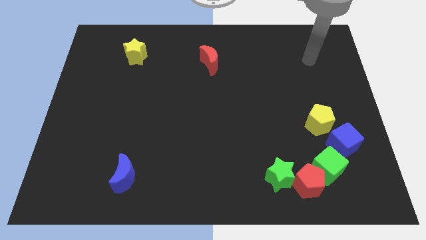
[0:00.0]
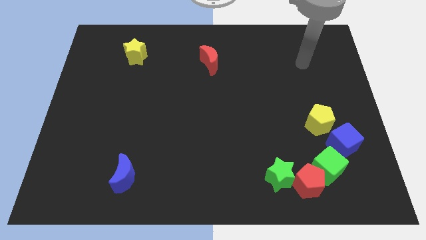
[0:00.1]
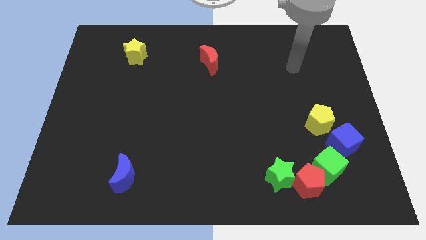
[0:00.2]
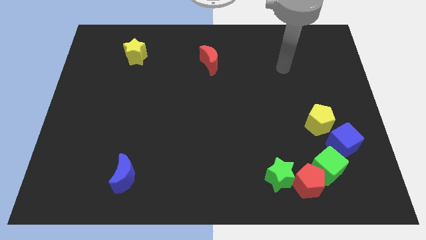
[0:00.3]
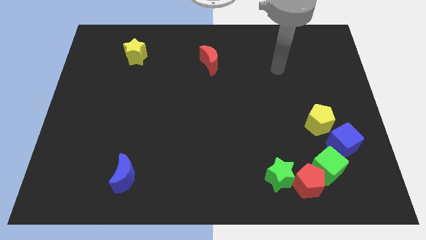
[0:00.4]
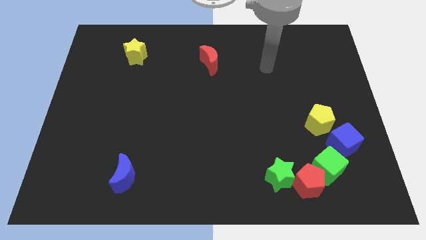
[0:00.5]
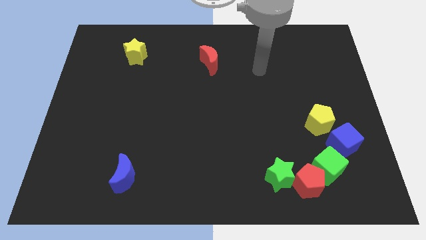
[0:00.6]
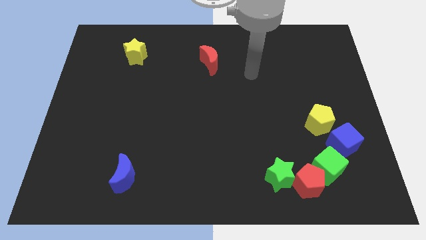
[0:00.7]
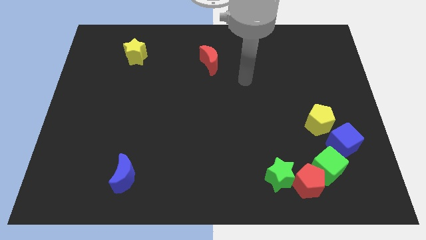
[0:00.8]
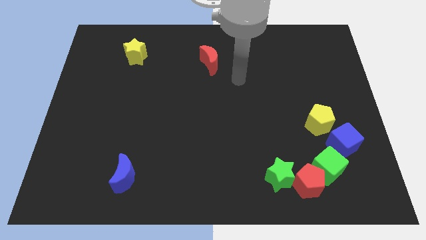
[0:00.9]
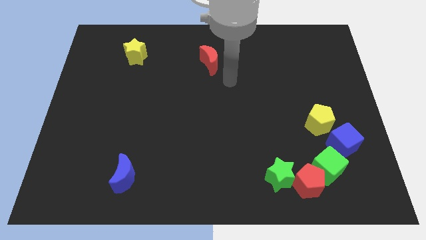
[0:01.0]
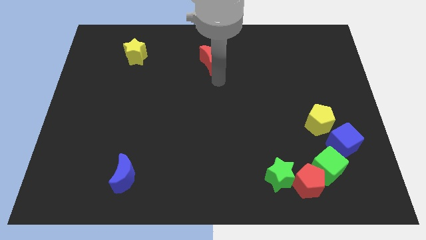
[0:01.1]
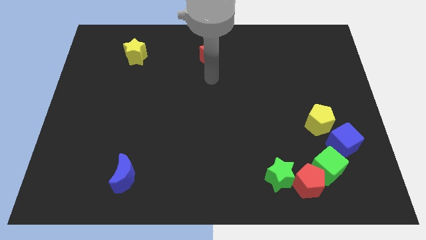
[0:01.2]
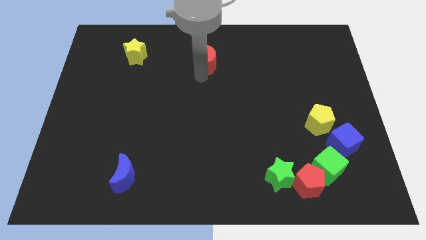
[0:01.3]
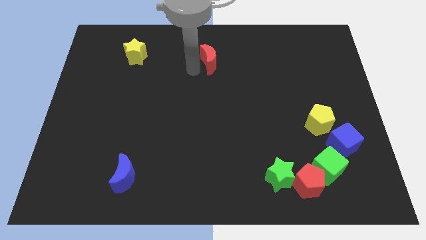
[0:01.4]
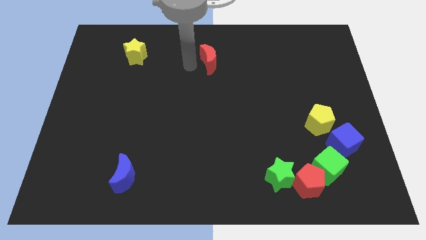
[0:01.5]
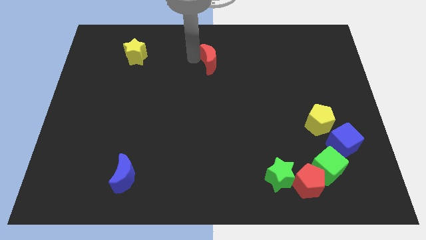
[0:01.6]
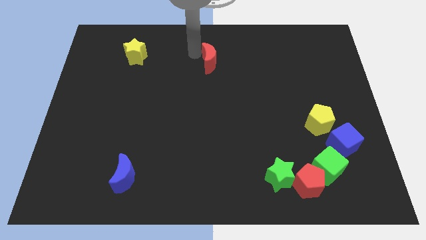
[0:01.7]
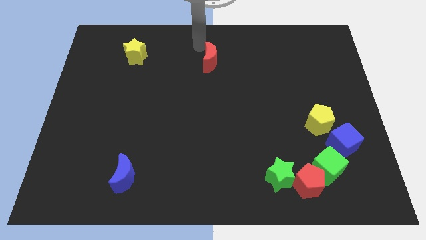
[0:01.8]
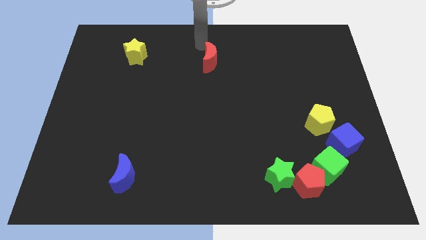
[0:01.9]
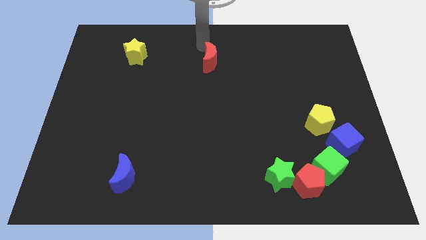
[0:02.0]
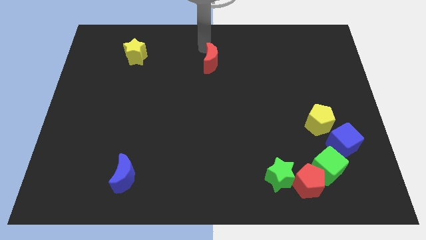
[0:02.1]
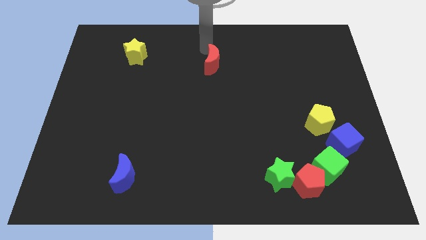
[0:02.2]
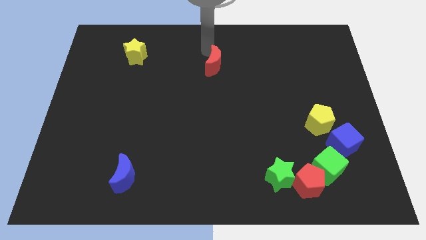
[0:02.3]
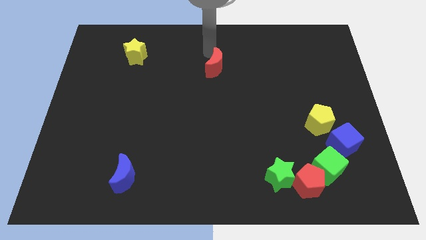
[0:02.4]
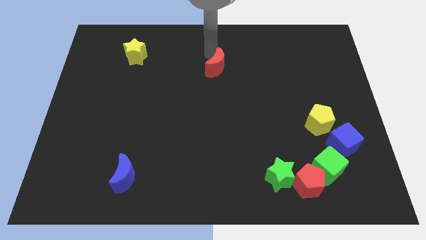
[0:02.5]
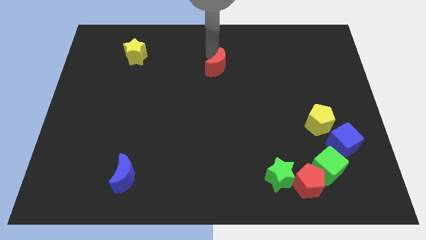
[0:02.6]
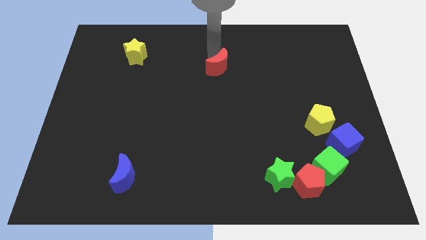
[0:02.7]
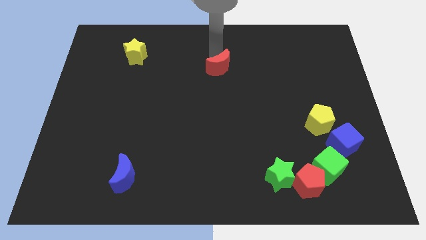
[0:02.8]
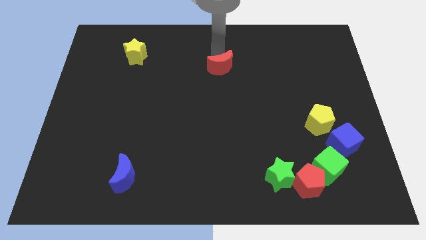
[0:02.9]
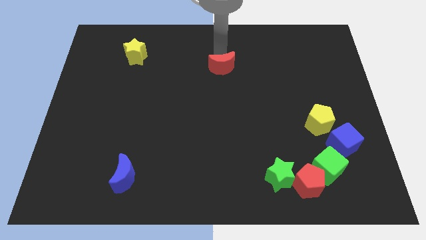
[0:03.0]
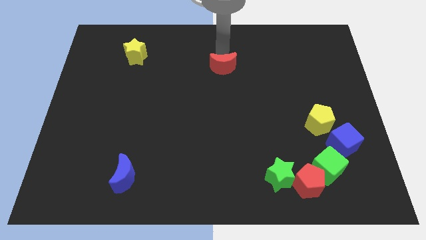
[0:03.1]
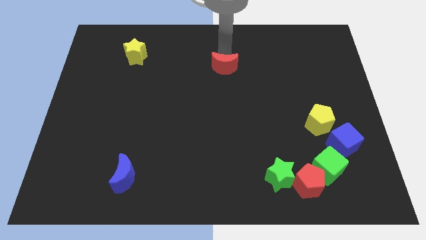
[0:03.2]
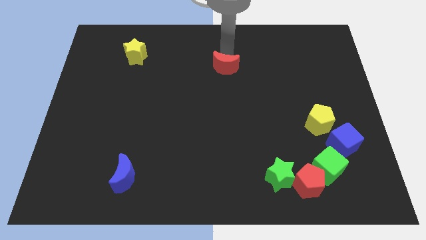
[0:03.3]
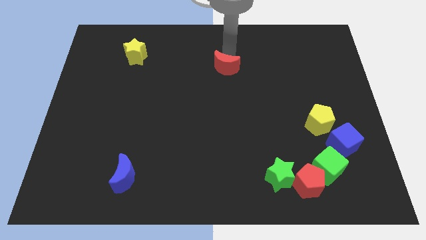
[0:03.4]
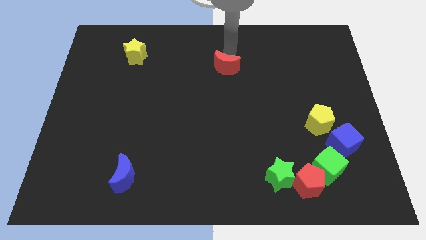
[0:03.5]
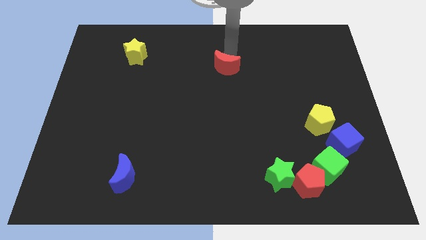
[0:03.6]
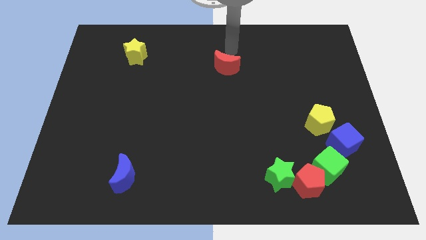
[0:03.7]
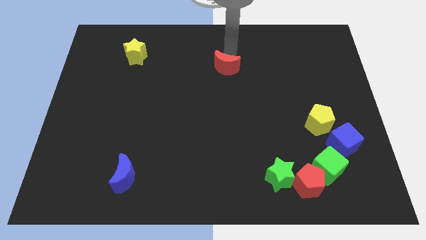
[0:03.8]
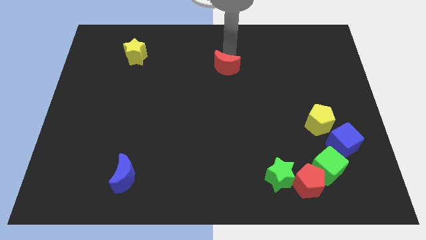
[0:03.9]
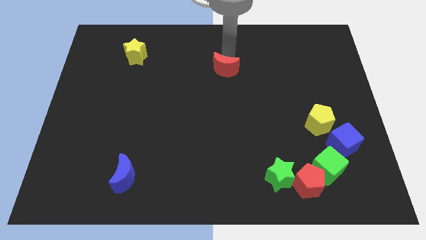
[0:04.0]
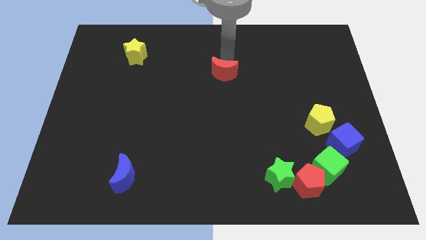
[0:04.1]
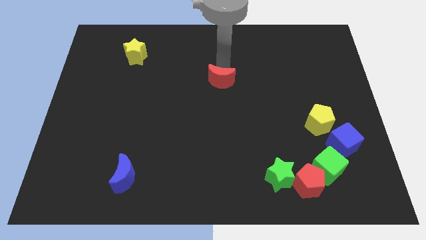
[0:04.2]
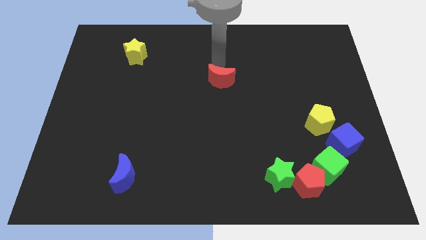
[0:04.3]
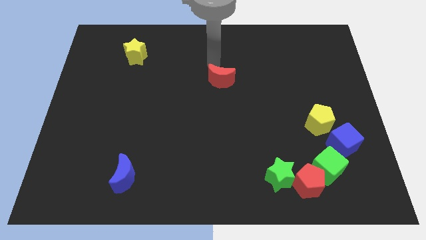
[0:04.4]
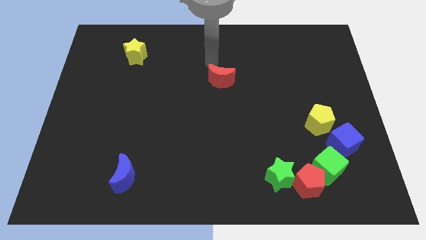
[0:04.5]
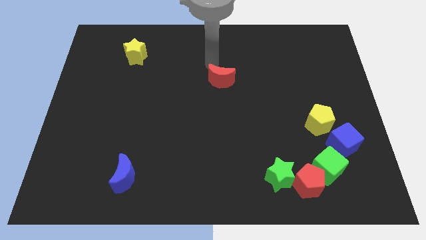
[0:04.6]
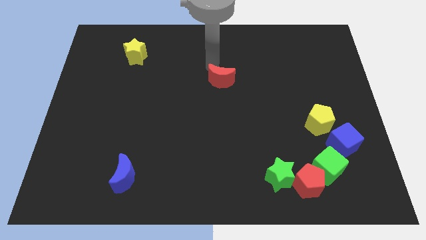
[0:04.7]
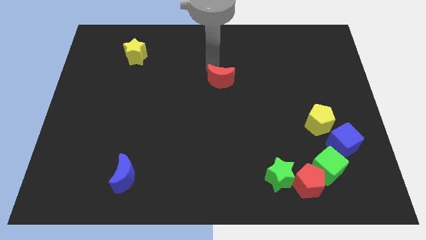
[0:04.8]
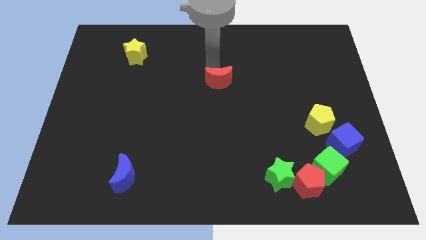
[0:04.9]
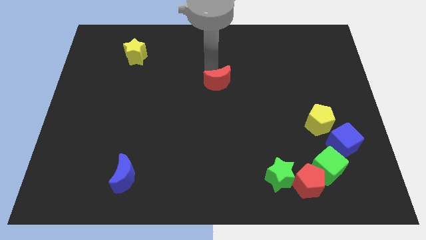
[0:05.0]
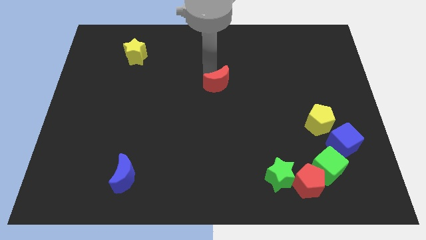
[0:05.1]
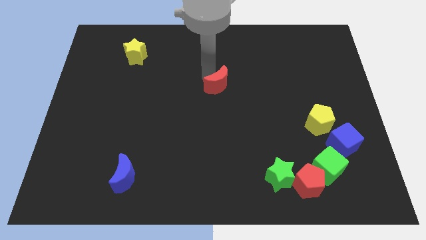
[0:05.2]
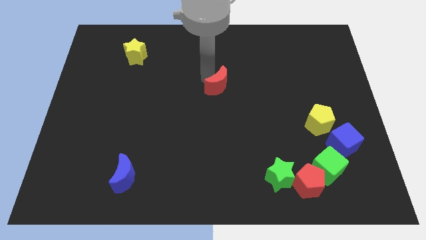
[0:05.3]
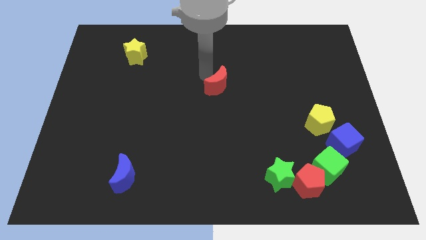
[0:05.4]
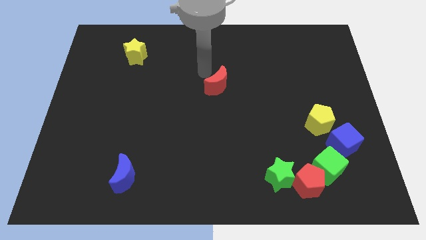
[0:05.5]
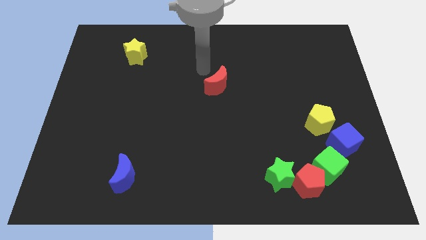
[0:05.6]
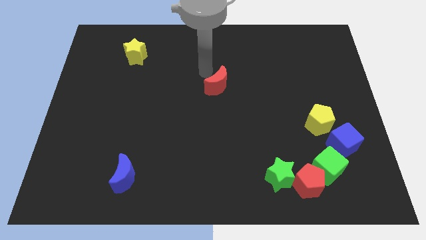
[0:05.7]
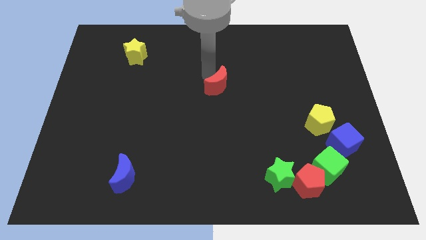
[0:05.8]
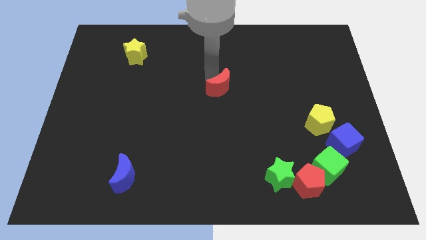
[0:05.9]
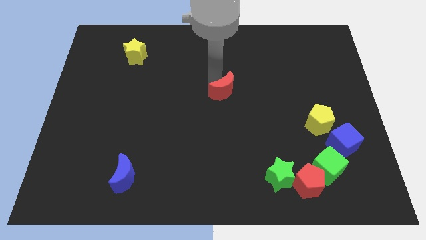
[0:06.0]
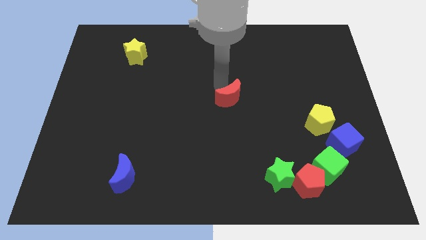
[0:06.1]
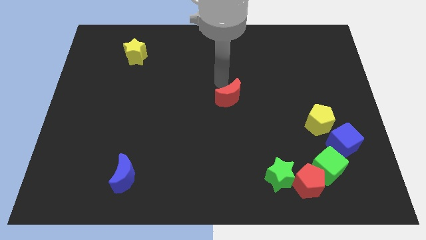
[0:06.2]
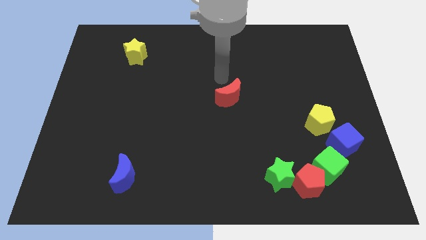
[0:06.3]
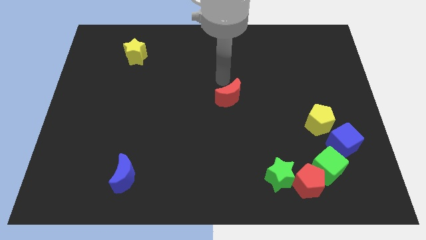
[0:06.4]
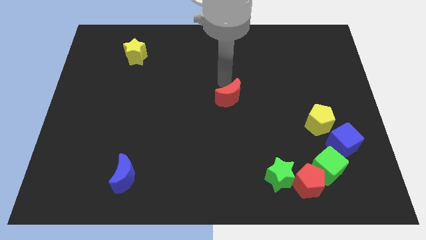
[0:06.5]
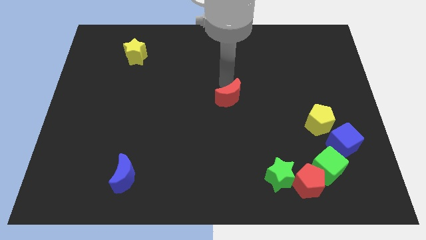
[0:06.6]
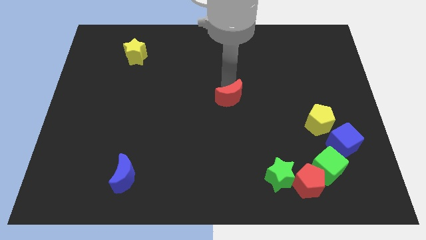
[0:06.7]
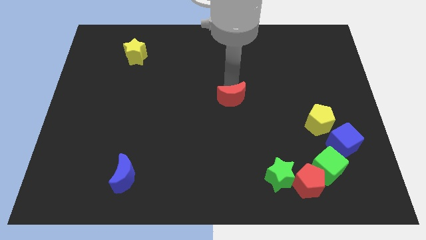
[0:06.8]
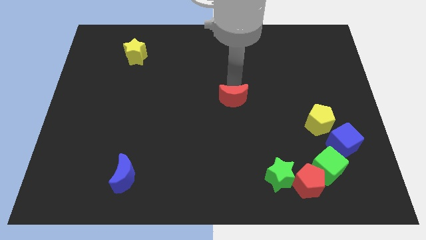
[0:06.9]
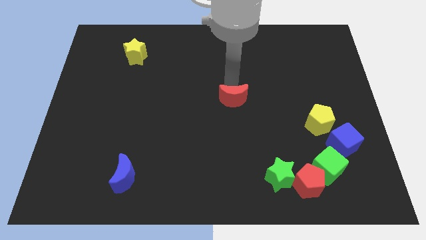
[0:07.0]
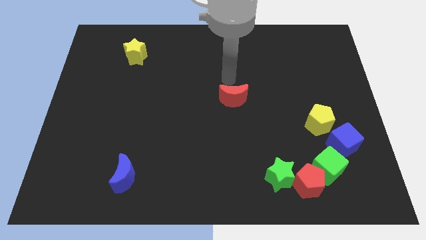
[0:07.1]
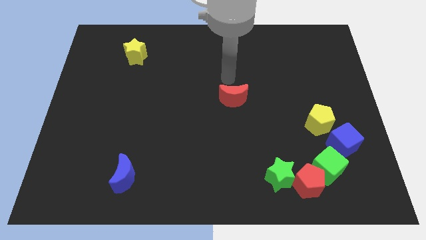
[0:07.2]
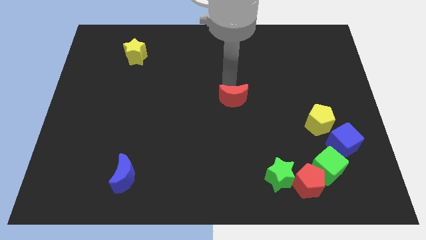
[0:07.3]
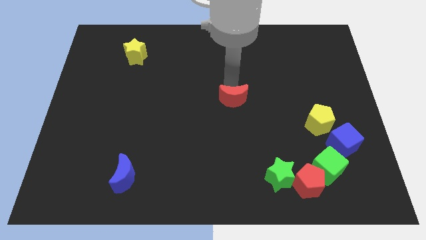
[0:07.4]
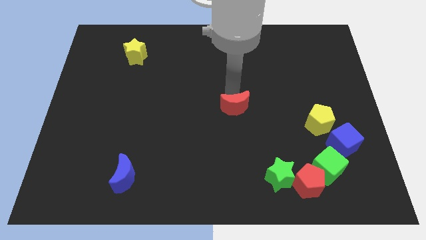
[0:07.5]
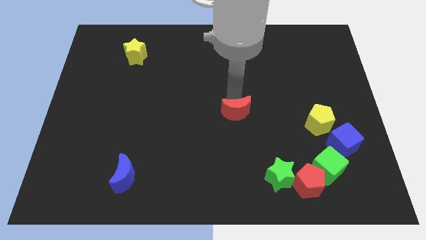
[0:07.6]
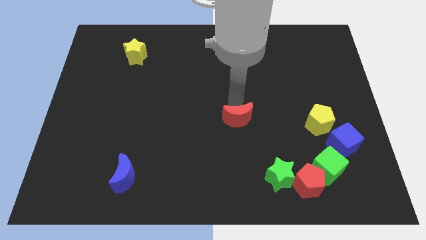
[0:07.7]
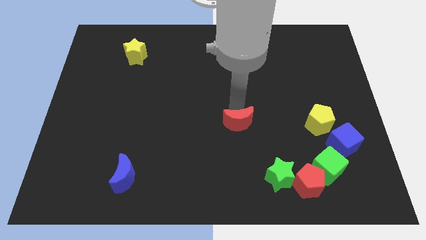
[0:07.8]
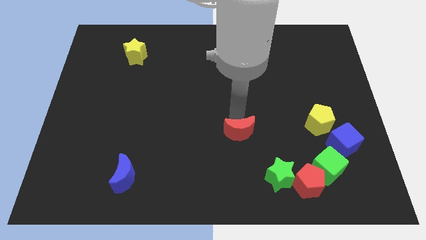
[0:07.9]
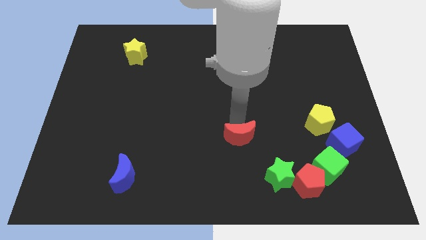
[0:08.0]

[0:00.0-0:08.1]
put the red moon diagonally up and to the left of the green star
